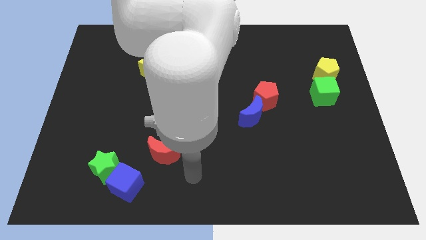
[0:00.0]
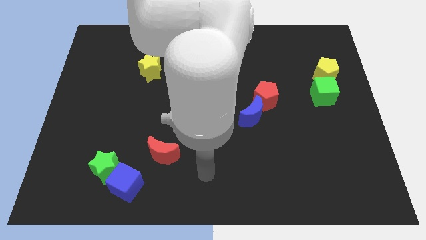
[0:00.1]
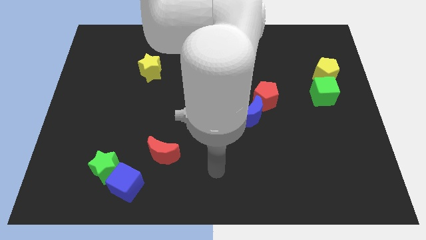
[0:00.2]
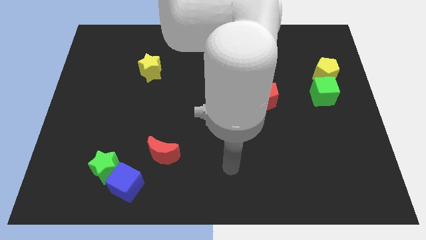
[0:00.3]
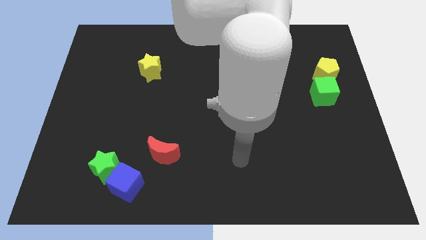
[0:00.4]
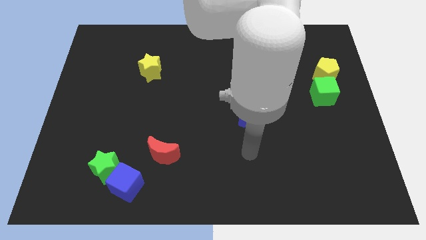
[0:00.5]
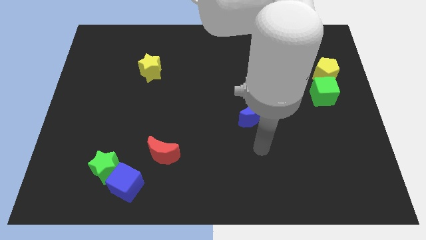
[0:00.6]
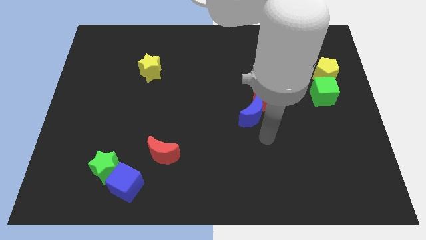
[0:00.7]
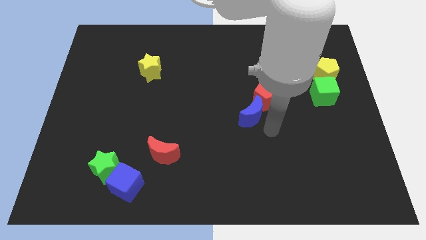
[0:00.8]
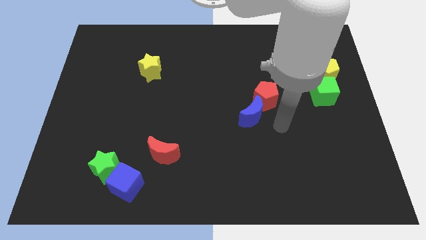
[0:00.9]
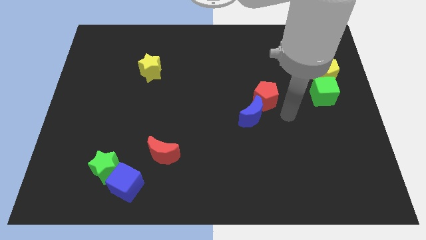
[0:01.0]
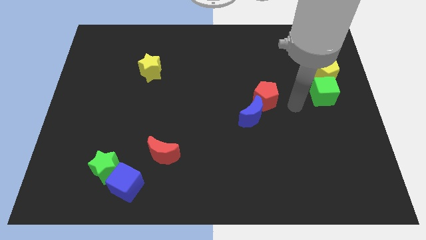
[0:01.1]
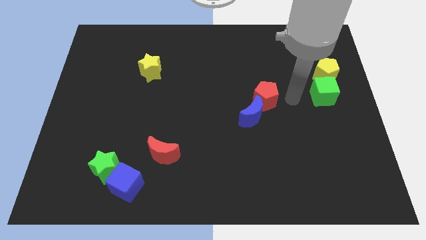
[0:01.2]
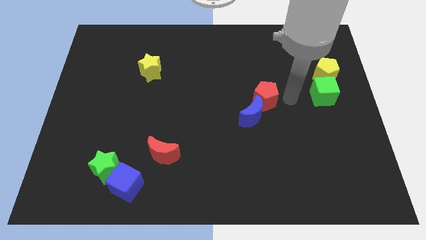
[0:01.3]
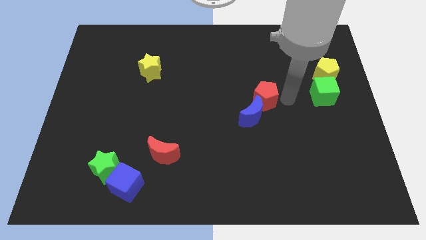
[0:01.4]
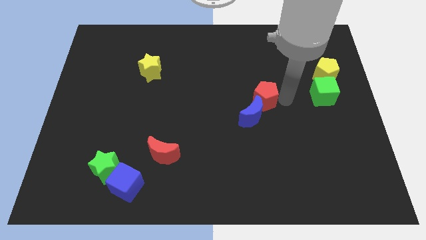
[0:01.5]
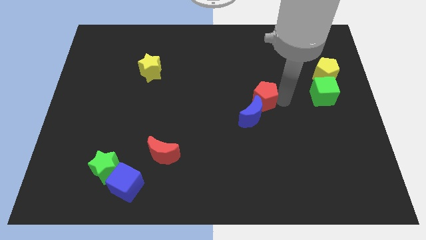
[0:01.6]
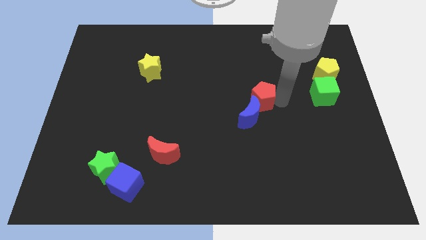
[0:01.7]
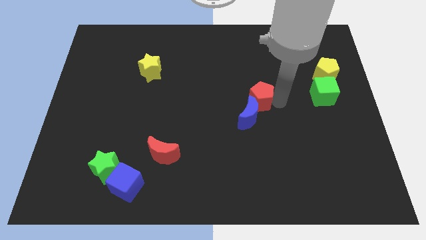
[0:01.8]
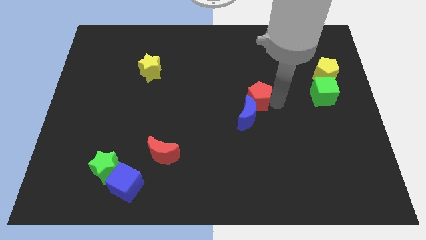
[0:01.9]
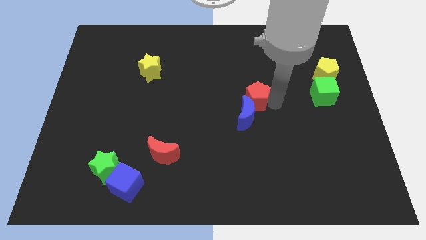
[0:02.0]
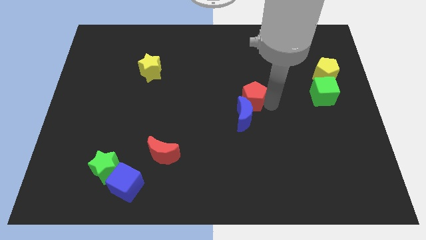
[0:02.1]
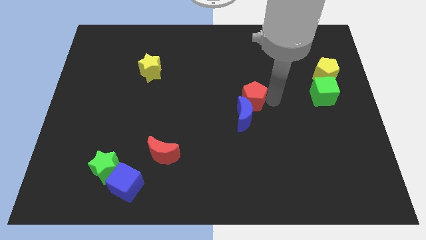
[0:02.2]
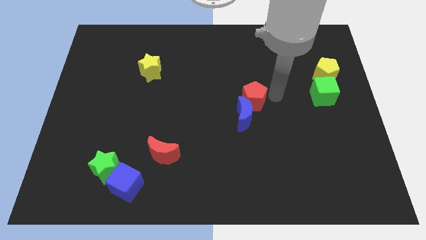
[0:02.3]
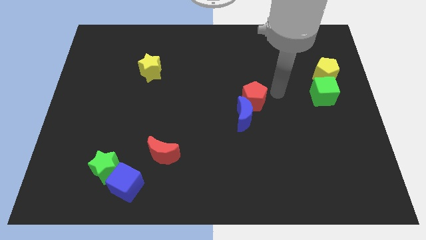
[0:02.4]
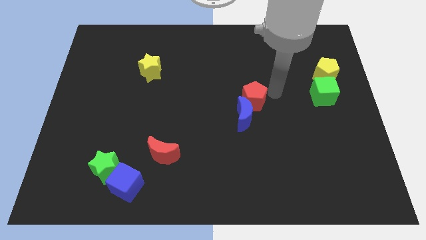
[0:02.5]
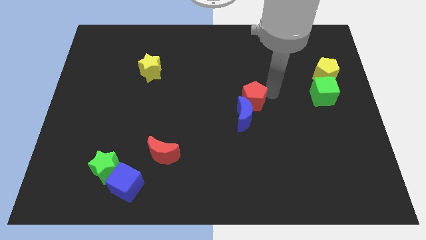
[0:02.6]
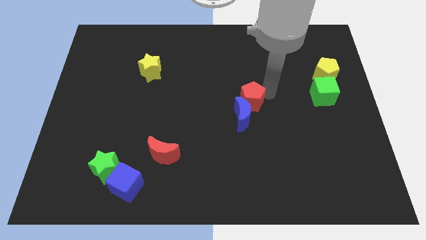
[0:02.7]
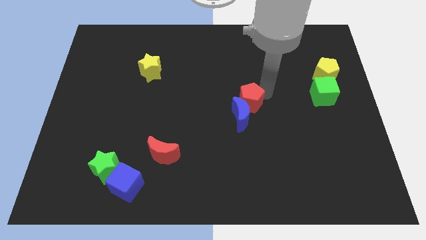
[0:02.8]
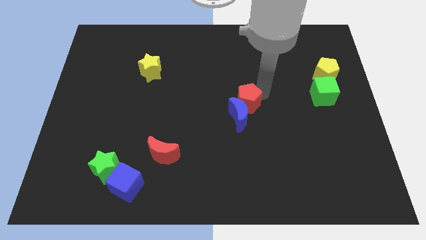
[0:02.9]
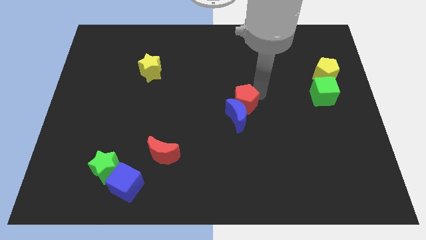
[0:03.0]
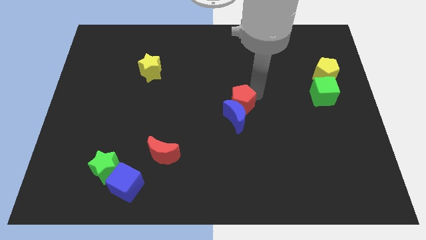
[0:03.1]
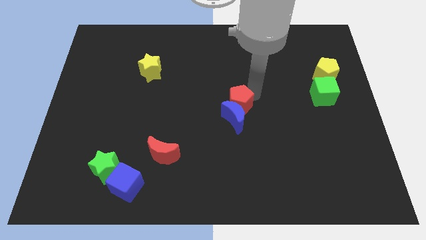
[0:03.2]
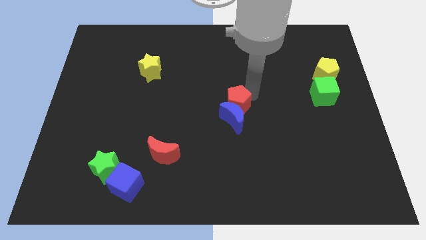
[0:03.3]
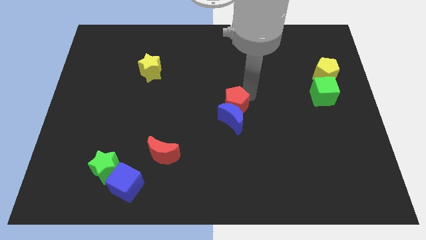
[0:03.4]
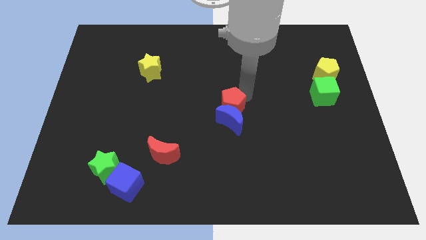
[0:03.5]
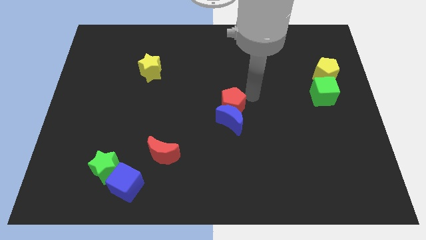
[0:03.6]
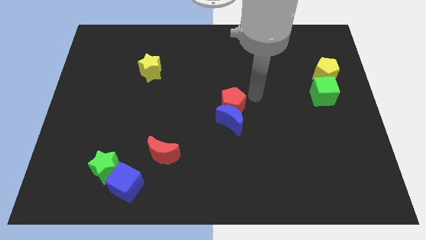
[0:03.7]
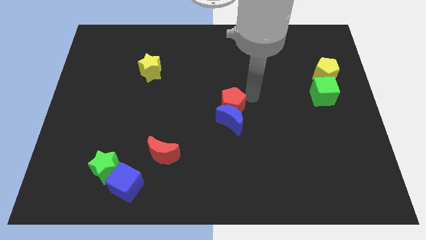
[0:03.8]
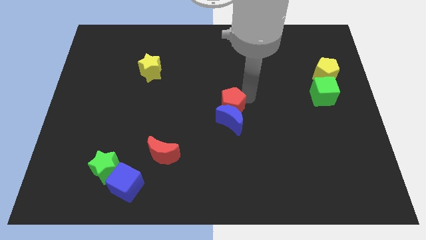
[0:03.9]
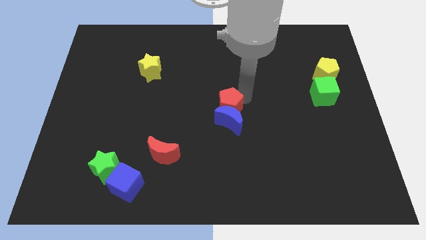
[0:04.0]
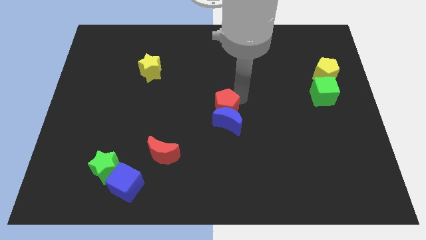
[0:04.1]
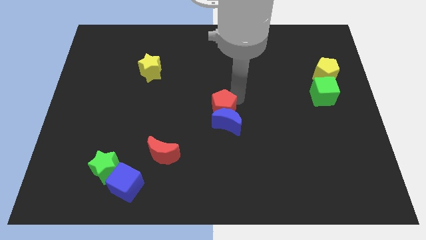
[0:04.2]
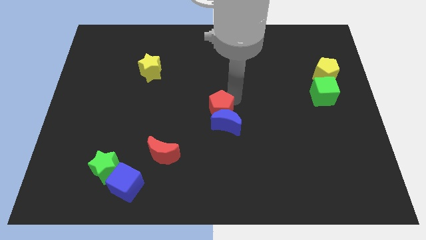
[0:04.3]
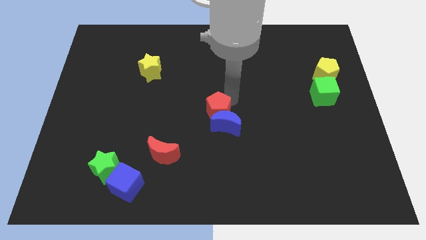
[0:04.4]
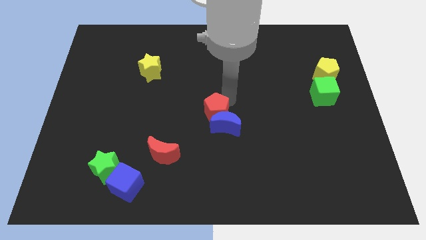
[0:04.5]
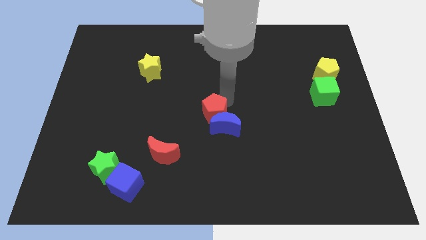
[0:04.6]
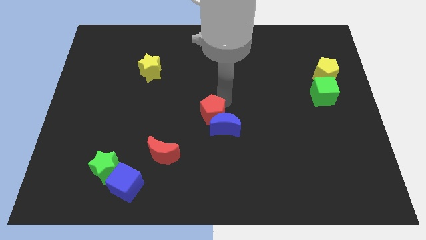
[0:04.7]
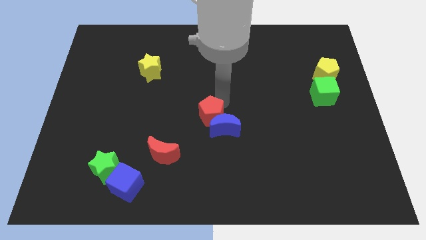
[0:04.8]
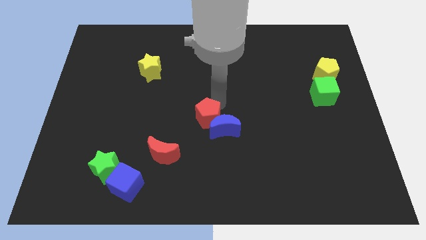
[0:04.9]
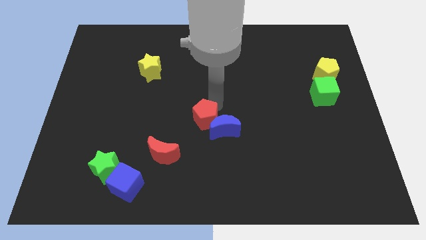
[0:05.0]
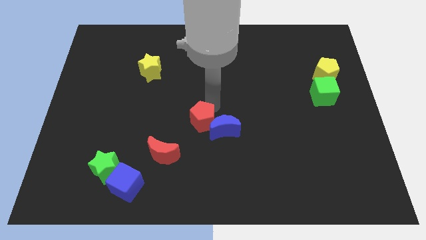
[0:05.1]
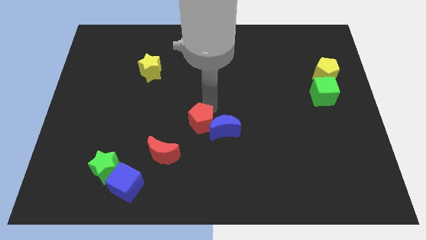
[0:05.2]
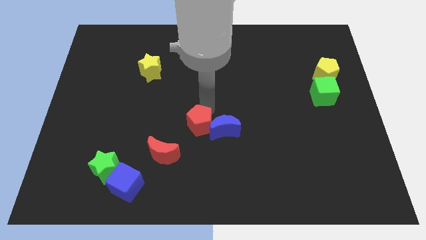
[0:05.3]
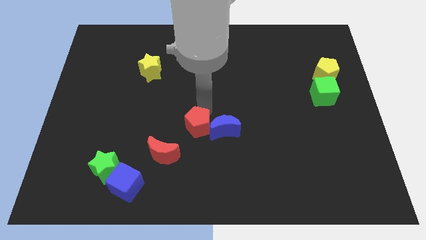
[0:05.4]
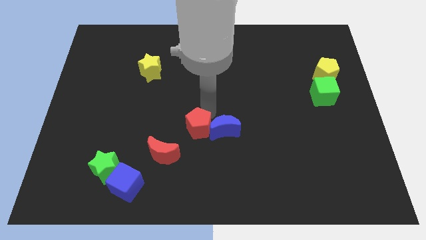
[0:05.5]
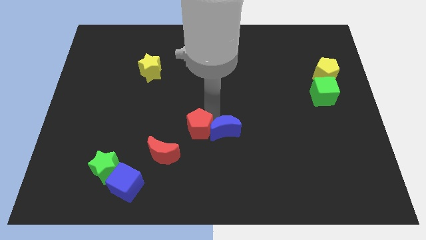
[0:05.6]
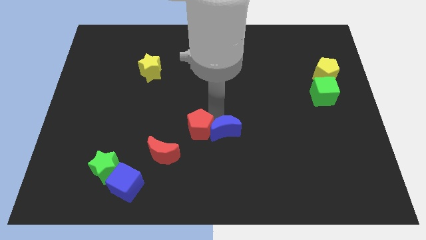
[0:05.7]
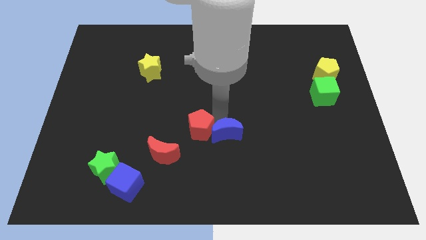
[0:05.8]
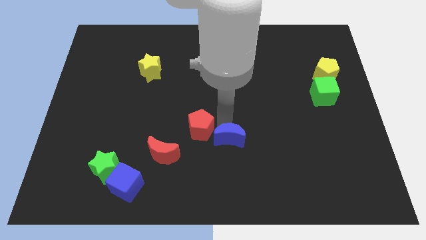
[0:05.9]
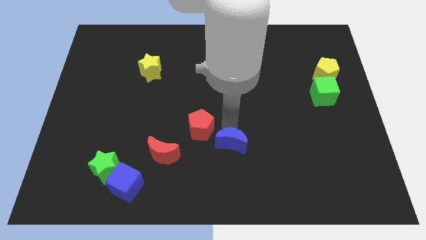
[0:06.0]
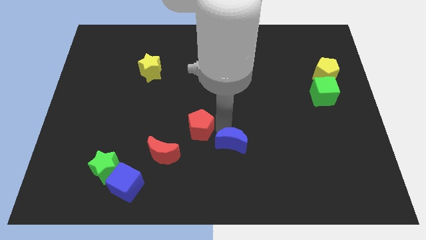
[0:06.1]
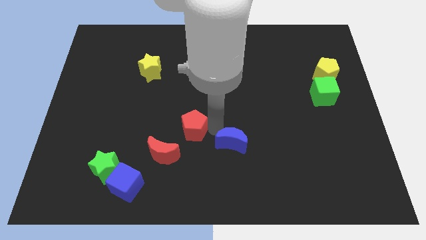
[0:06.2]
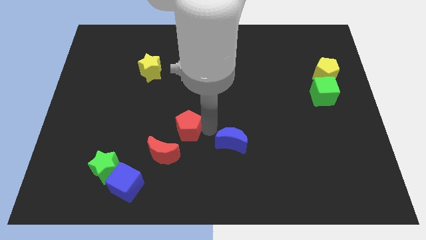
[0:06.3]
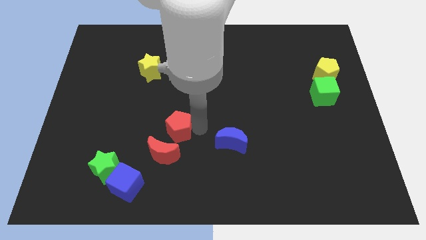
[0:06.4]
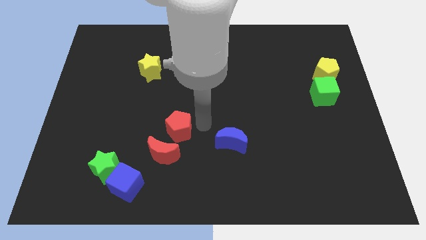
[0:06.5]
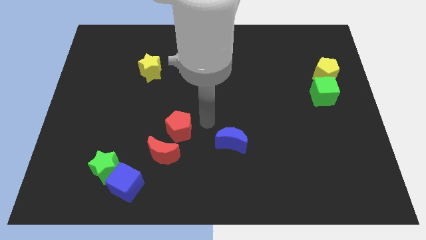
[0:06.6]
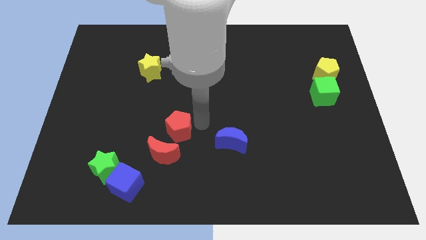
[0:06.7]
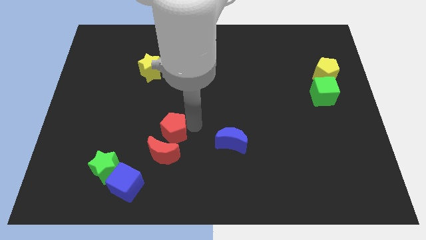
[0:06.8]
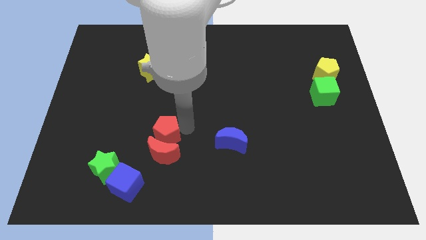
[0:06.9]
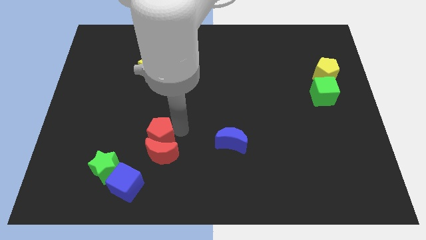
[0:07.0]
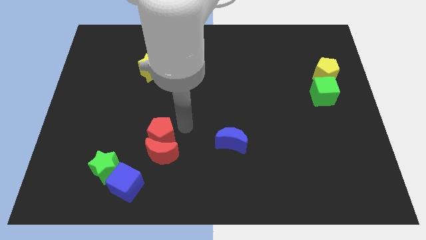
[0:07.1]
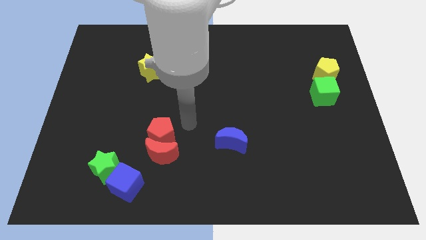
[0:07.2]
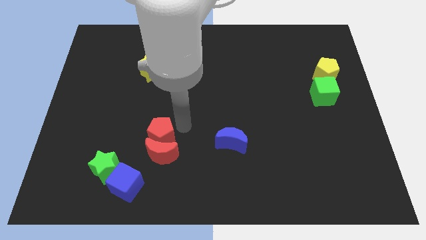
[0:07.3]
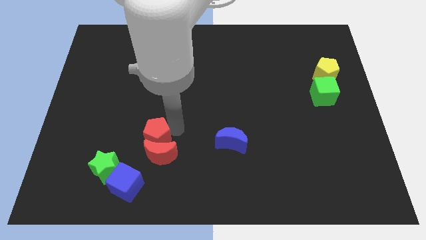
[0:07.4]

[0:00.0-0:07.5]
move the red pentagon to the top right side of the green star
